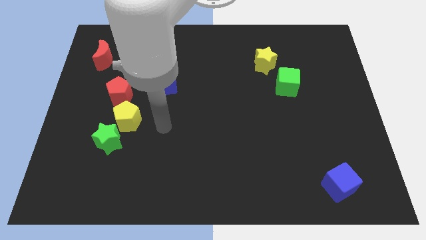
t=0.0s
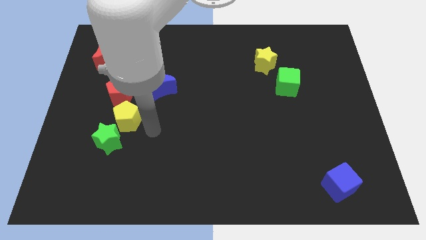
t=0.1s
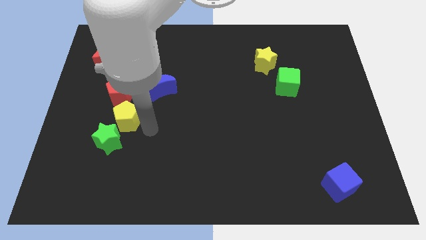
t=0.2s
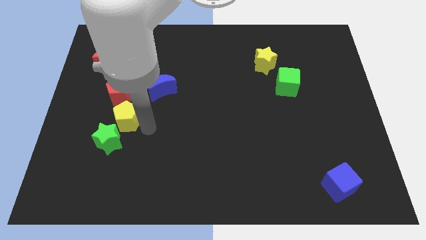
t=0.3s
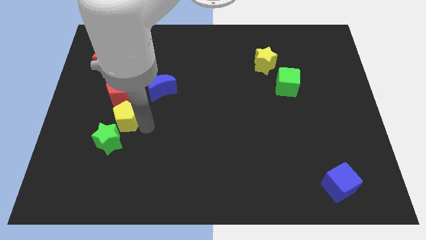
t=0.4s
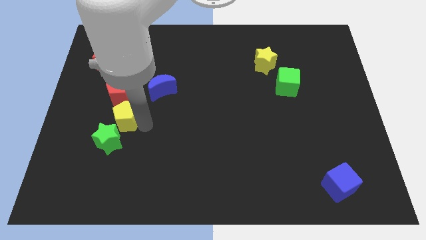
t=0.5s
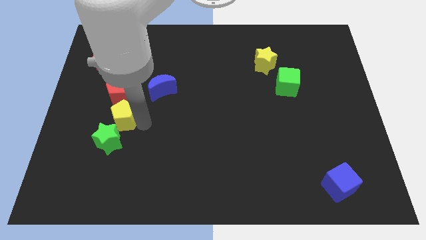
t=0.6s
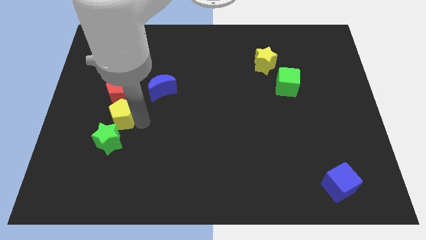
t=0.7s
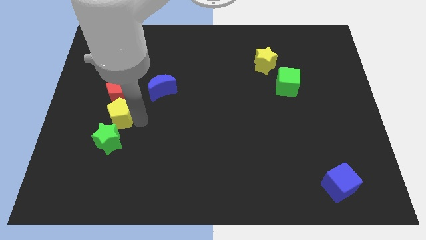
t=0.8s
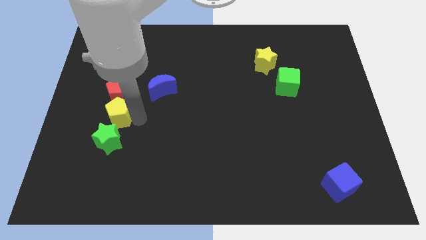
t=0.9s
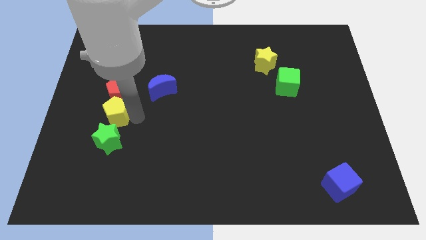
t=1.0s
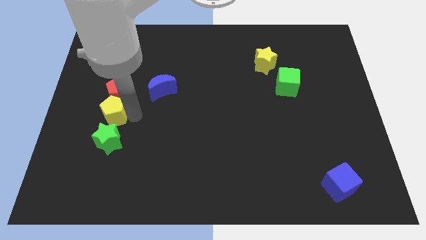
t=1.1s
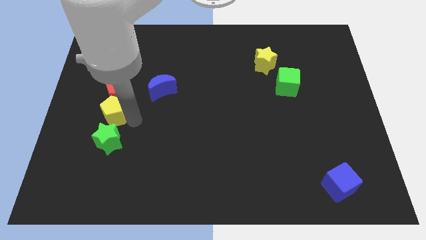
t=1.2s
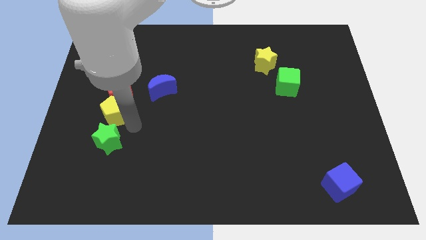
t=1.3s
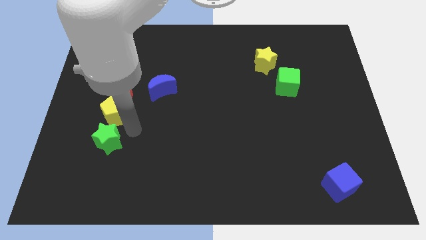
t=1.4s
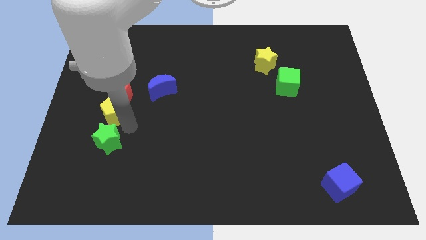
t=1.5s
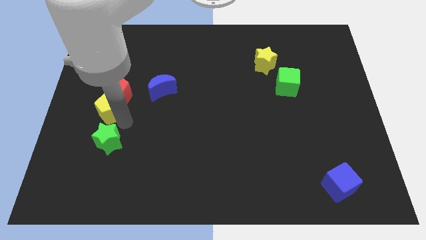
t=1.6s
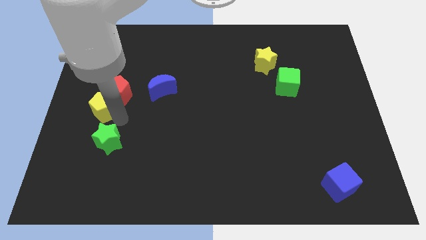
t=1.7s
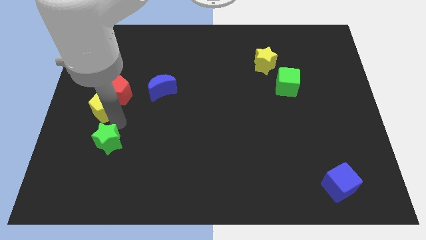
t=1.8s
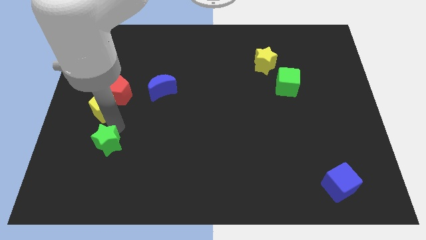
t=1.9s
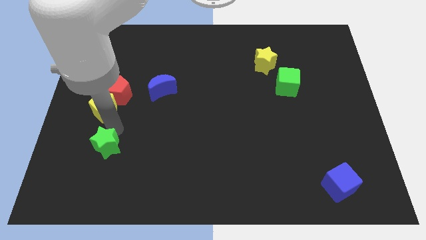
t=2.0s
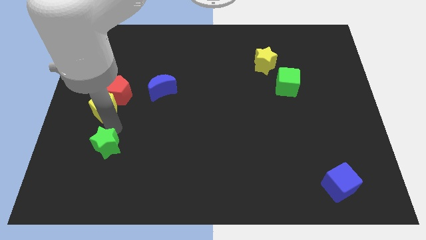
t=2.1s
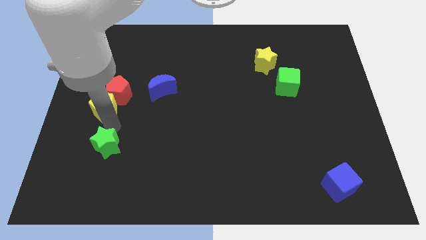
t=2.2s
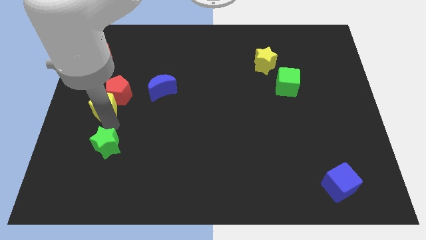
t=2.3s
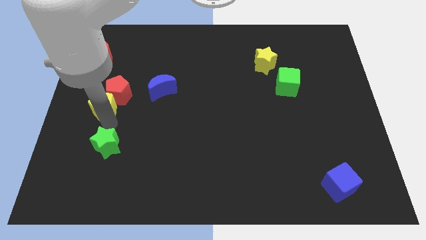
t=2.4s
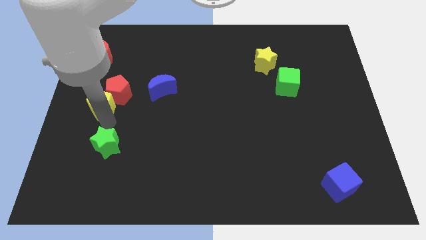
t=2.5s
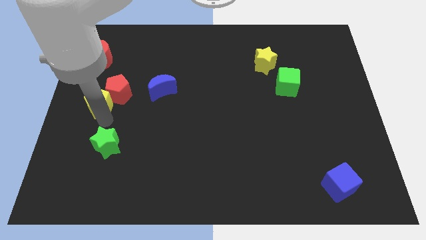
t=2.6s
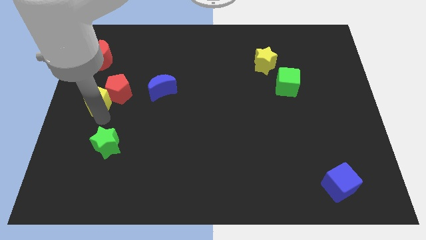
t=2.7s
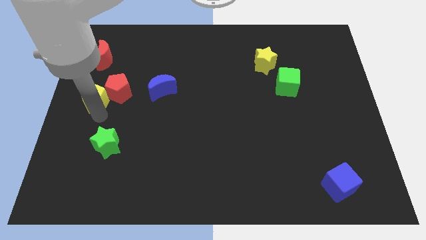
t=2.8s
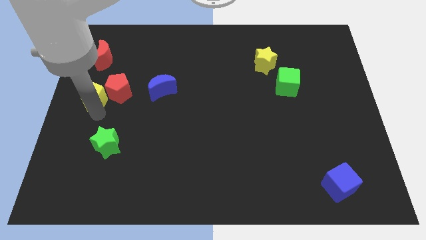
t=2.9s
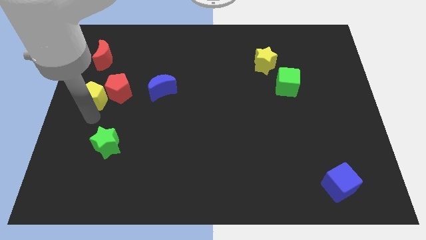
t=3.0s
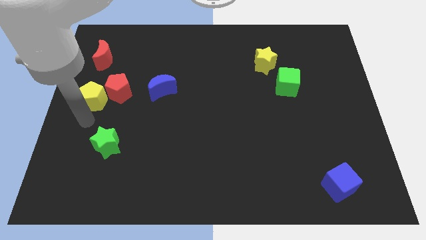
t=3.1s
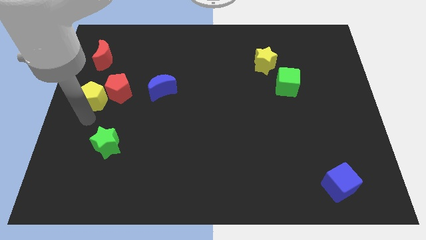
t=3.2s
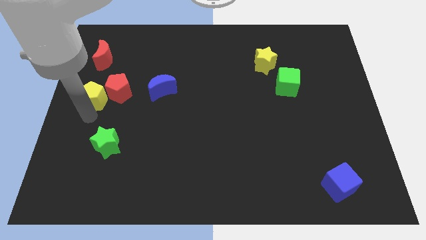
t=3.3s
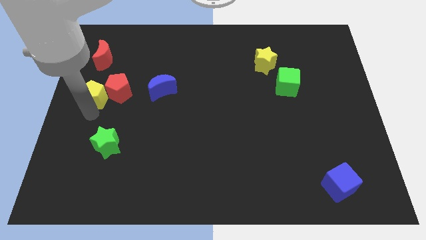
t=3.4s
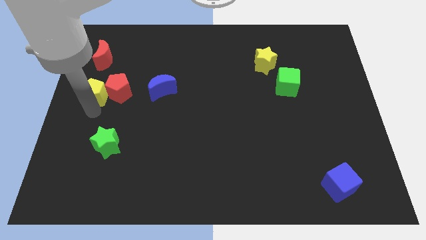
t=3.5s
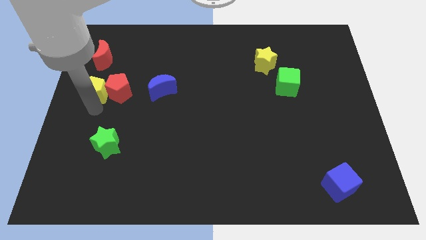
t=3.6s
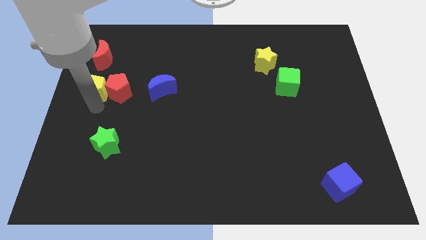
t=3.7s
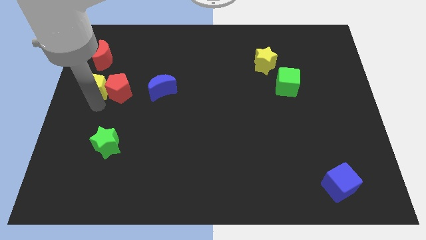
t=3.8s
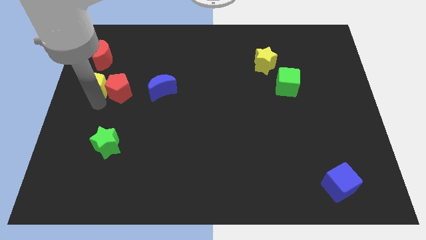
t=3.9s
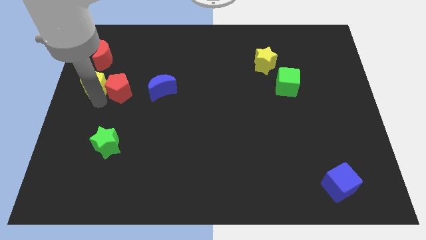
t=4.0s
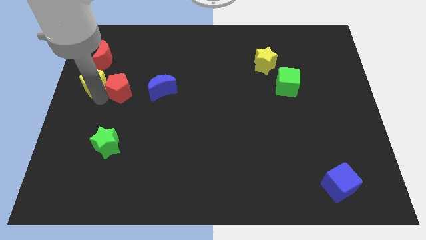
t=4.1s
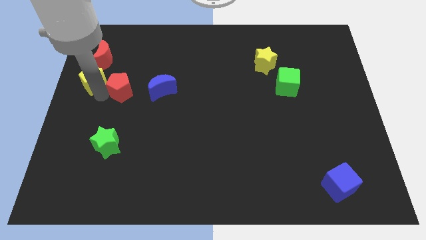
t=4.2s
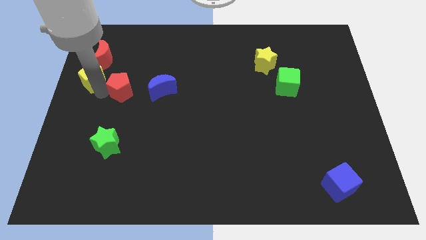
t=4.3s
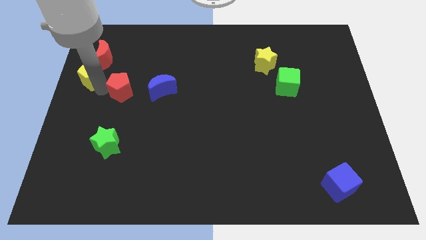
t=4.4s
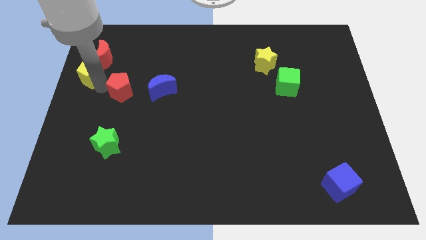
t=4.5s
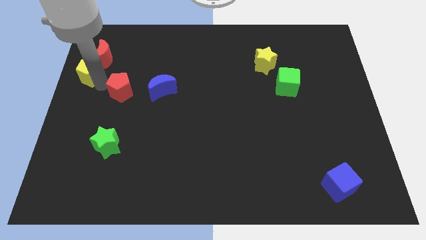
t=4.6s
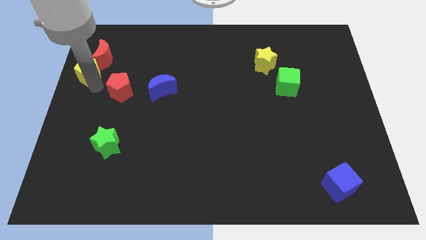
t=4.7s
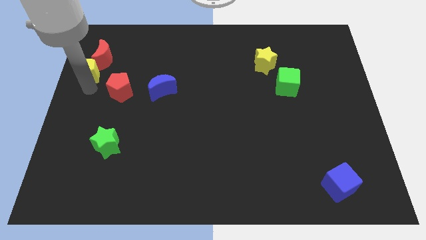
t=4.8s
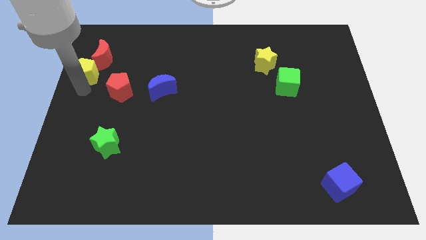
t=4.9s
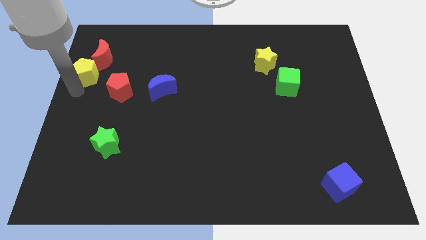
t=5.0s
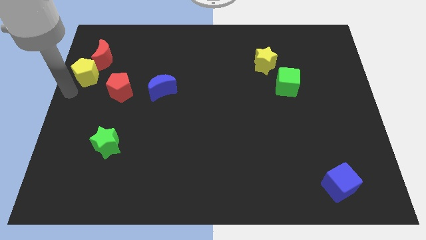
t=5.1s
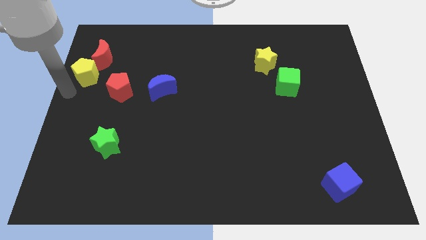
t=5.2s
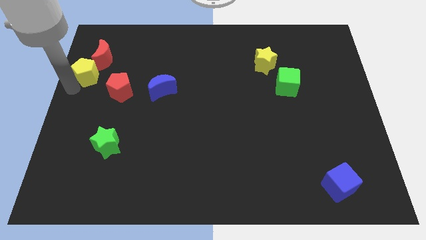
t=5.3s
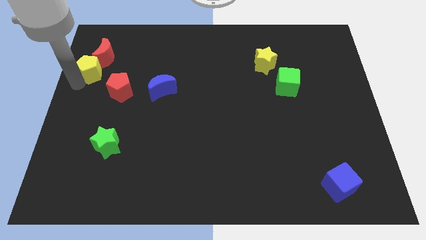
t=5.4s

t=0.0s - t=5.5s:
put the yellow pentagon next to the red moon

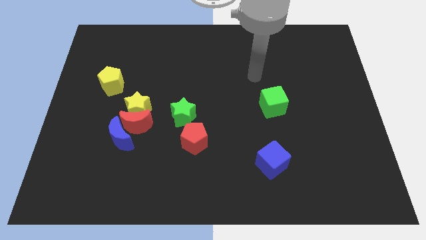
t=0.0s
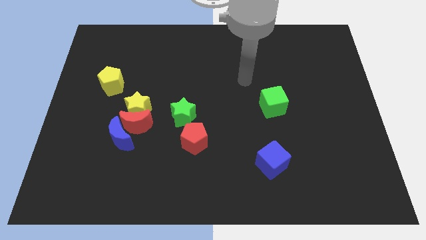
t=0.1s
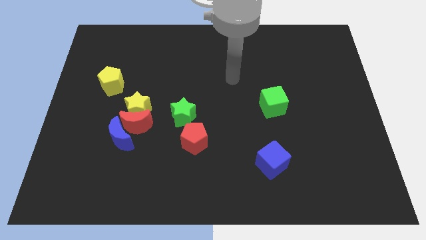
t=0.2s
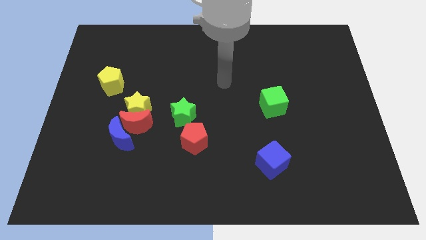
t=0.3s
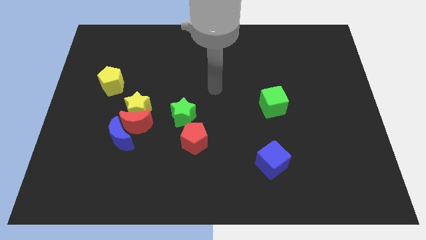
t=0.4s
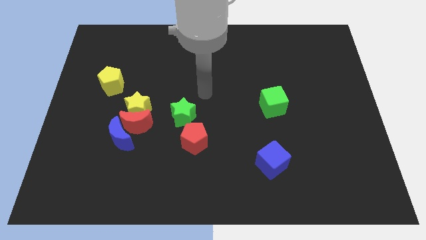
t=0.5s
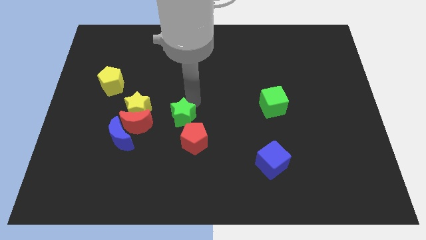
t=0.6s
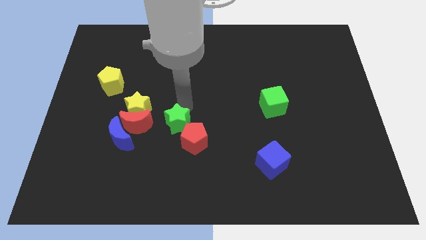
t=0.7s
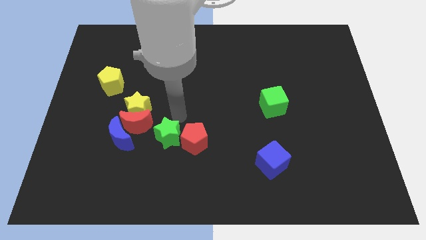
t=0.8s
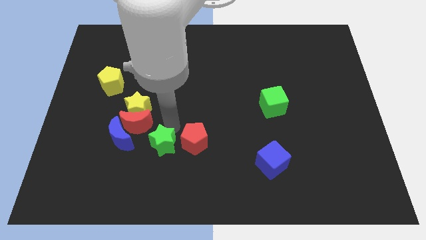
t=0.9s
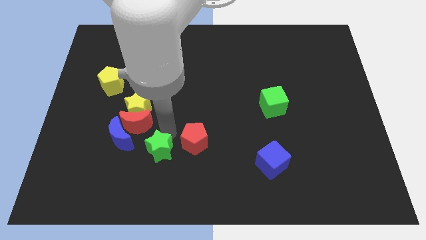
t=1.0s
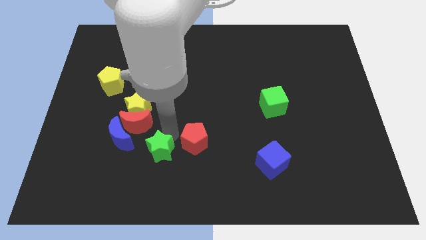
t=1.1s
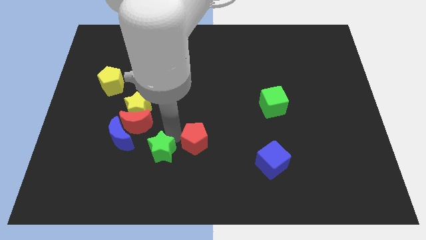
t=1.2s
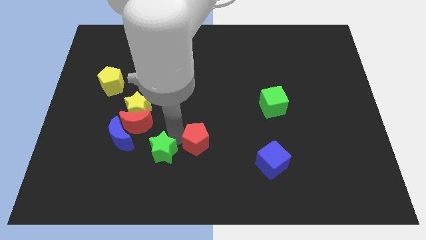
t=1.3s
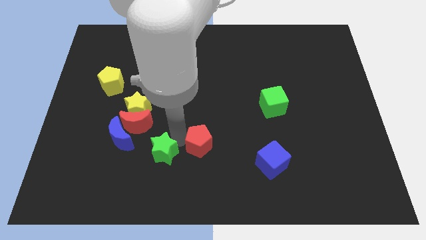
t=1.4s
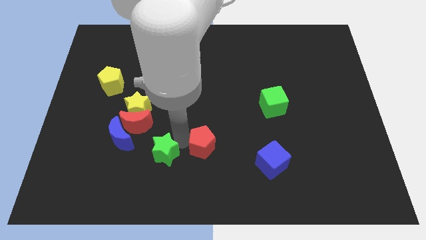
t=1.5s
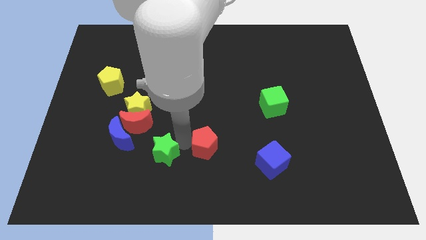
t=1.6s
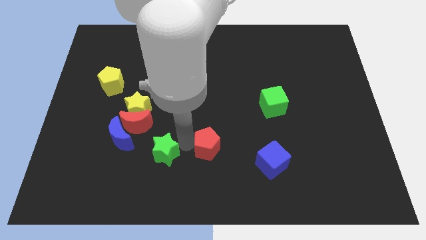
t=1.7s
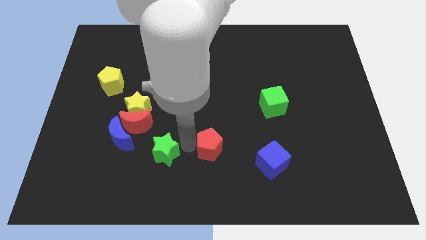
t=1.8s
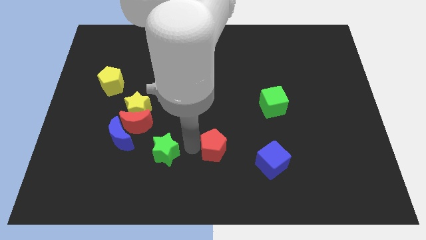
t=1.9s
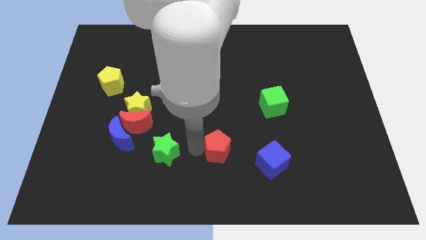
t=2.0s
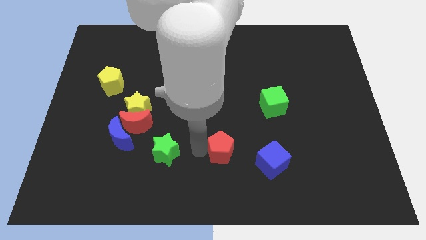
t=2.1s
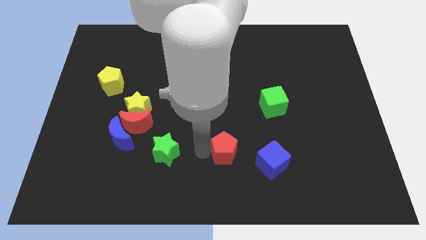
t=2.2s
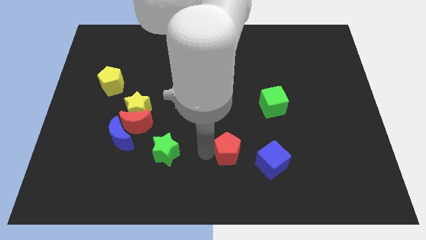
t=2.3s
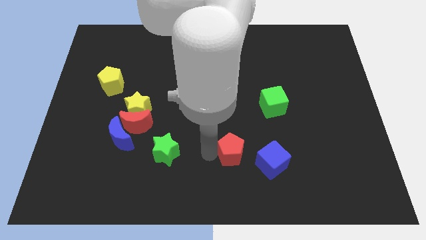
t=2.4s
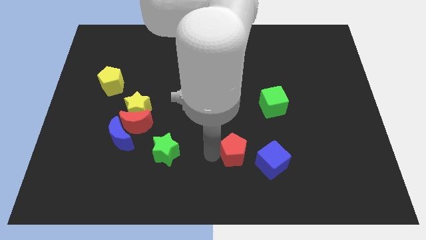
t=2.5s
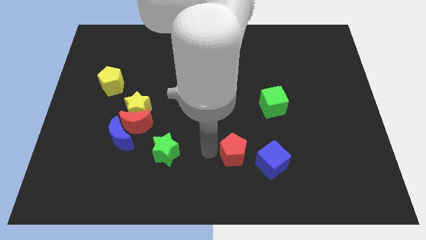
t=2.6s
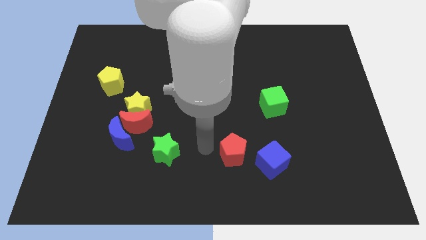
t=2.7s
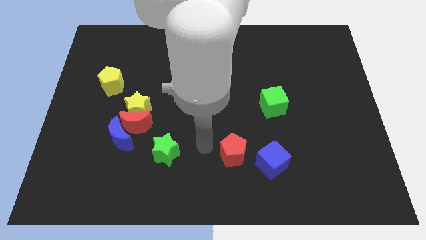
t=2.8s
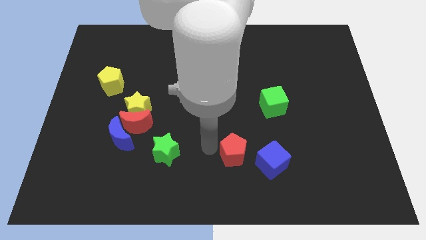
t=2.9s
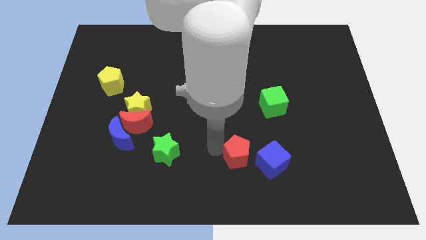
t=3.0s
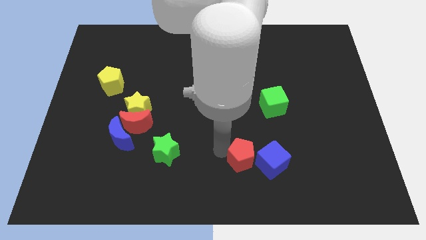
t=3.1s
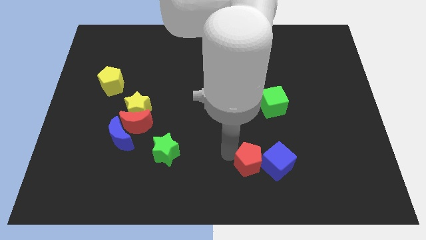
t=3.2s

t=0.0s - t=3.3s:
push the red pentagon to the blue cube
